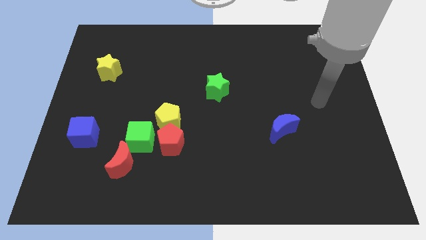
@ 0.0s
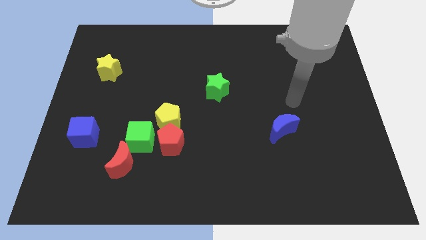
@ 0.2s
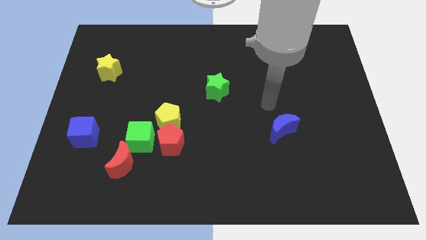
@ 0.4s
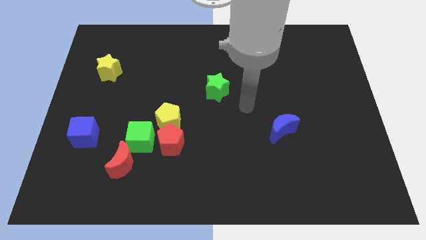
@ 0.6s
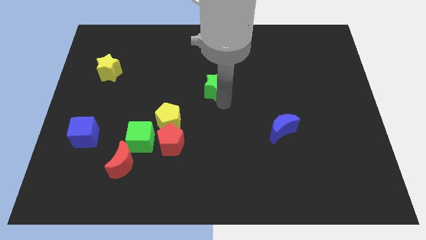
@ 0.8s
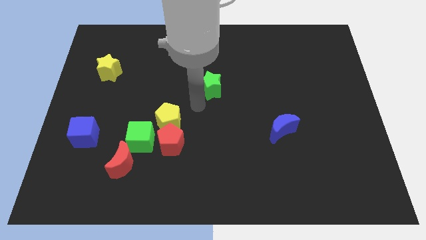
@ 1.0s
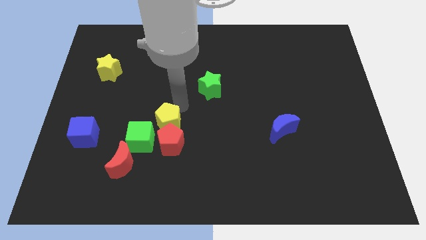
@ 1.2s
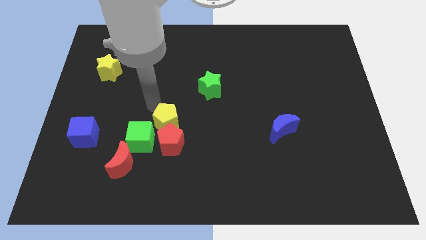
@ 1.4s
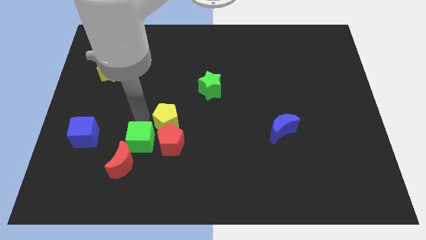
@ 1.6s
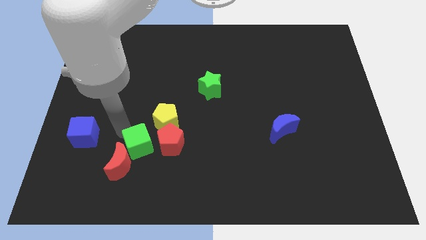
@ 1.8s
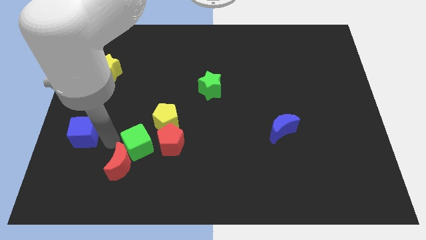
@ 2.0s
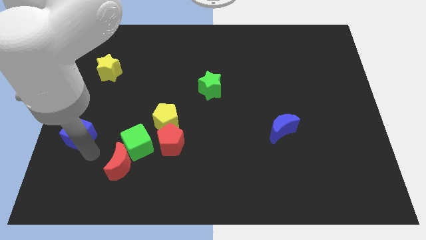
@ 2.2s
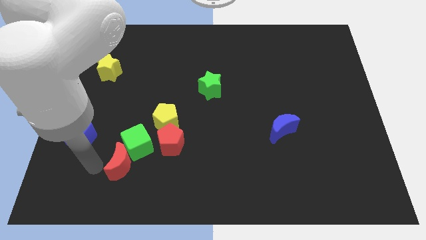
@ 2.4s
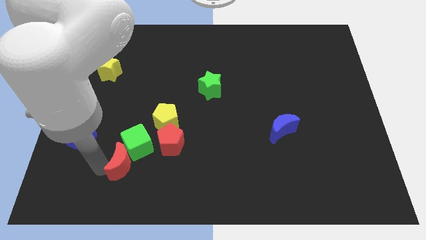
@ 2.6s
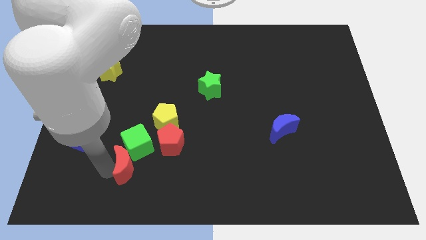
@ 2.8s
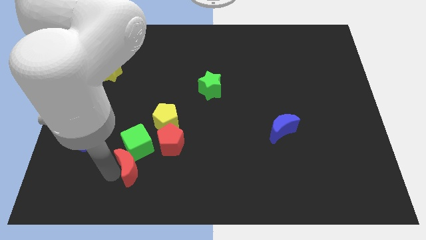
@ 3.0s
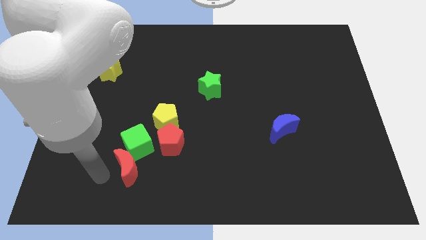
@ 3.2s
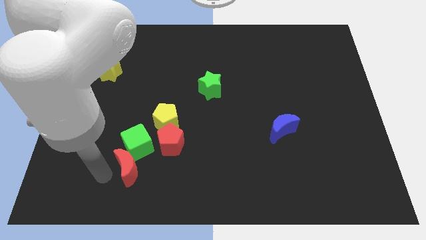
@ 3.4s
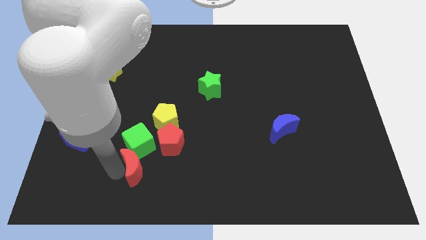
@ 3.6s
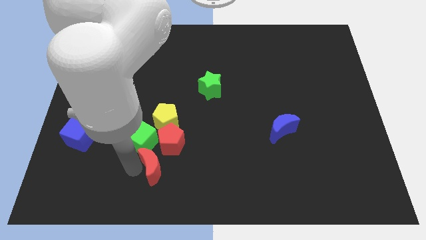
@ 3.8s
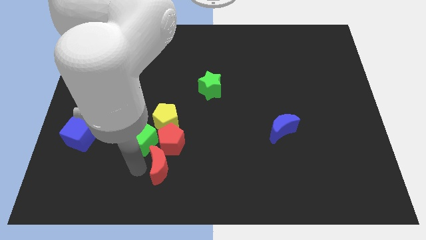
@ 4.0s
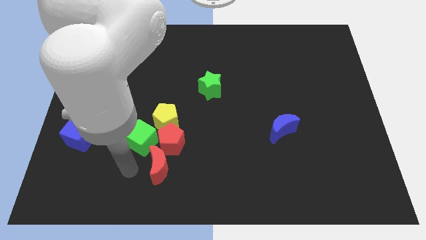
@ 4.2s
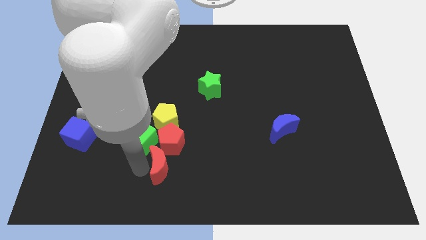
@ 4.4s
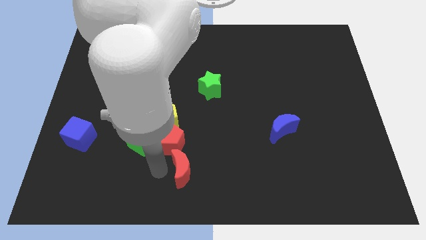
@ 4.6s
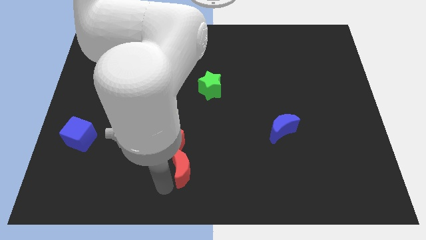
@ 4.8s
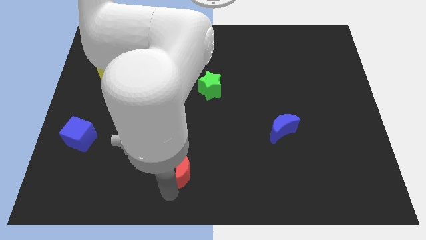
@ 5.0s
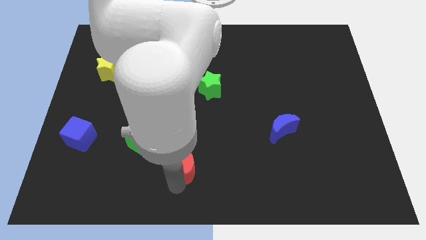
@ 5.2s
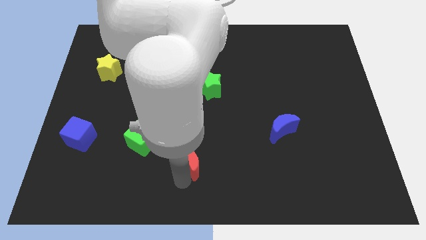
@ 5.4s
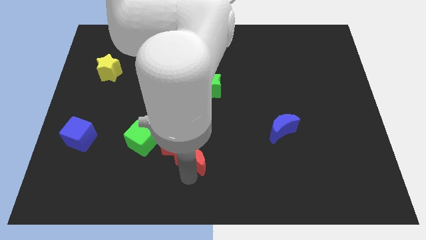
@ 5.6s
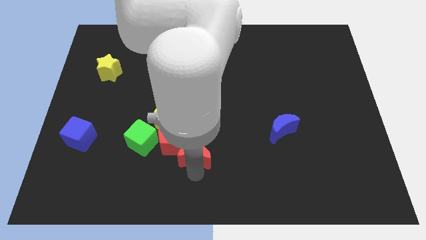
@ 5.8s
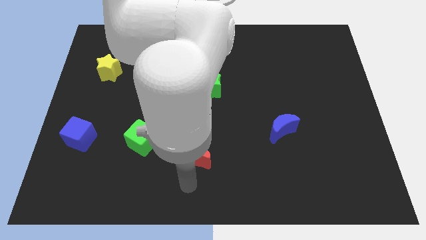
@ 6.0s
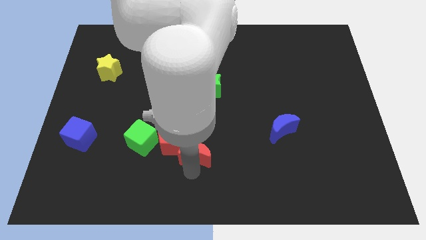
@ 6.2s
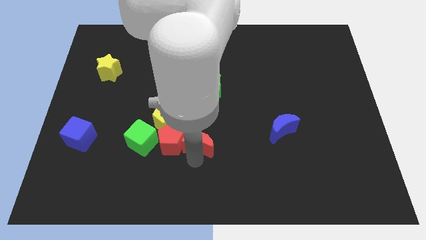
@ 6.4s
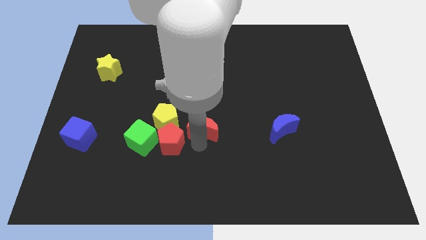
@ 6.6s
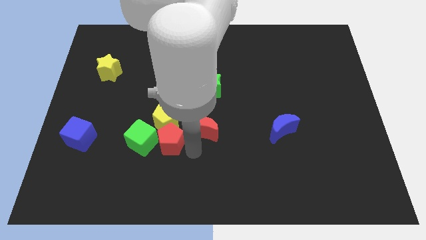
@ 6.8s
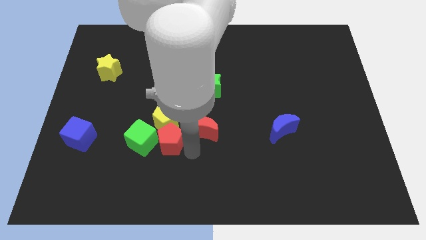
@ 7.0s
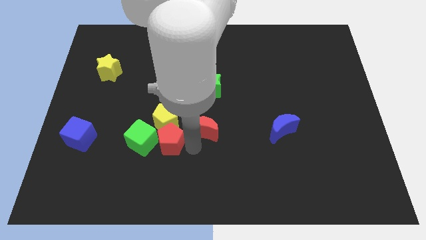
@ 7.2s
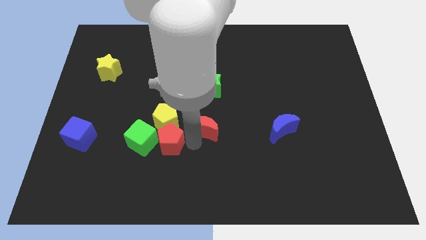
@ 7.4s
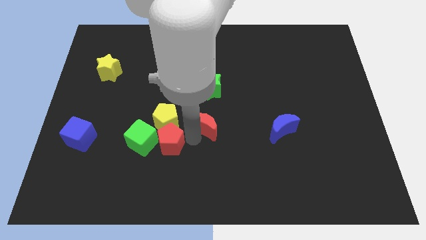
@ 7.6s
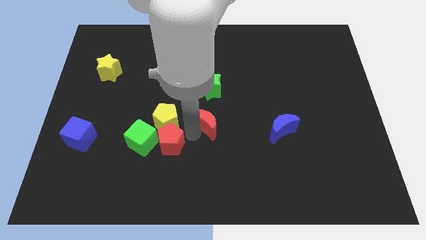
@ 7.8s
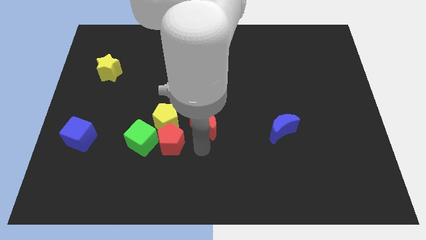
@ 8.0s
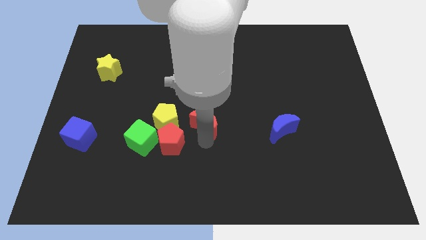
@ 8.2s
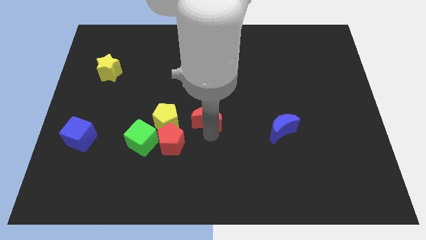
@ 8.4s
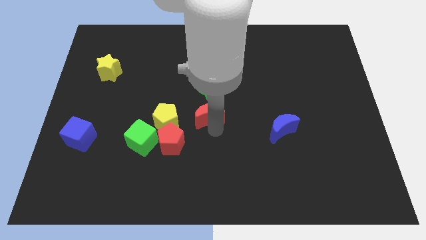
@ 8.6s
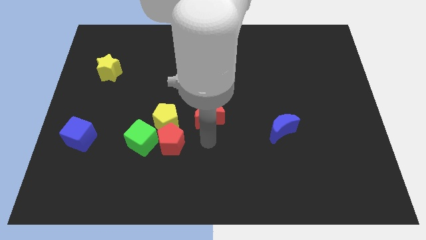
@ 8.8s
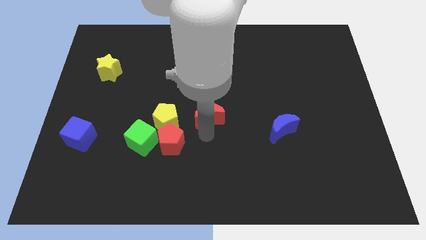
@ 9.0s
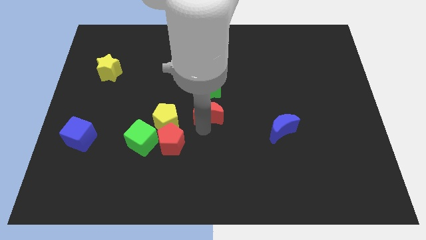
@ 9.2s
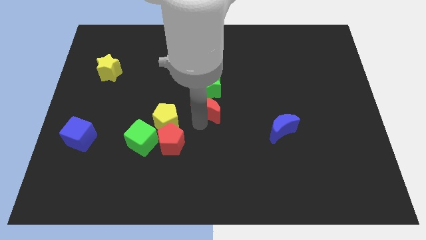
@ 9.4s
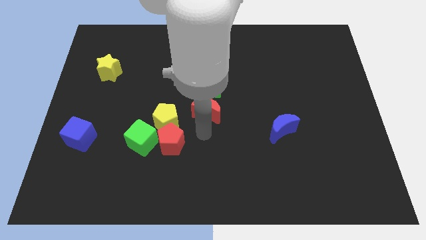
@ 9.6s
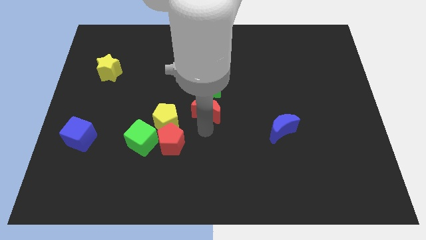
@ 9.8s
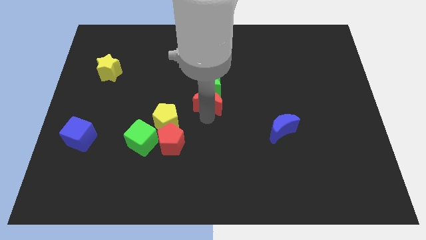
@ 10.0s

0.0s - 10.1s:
move the red moon towards the green star

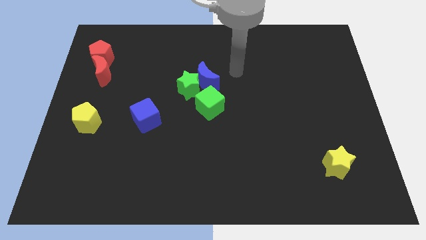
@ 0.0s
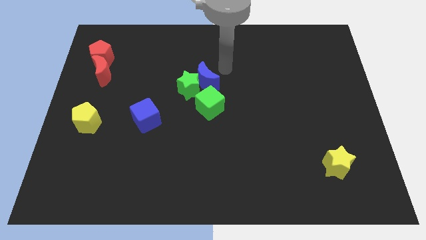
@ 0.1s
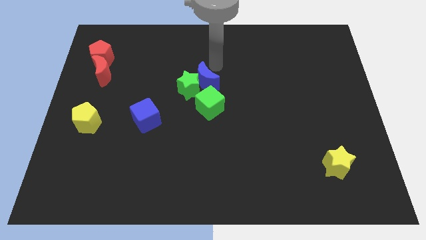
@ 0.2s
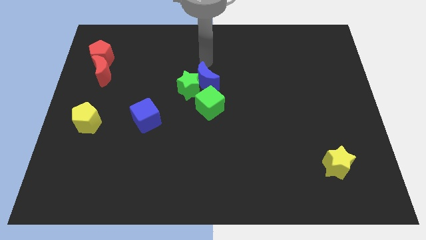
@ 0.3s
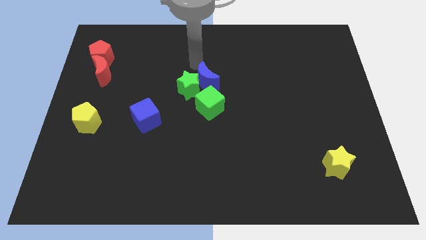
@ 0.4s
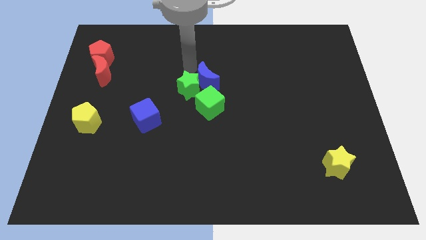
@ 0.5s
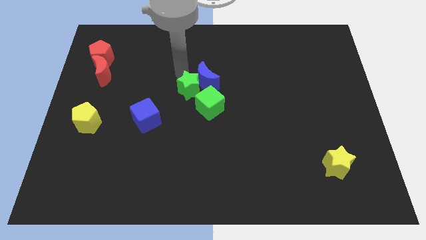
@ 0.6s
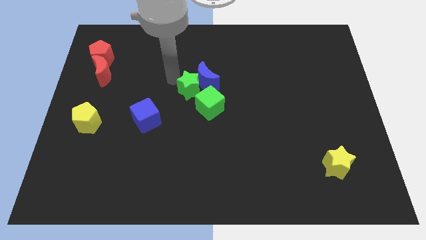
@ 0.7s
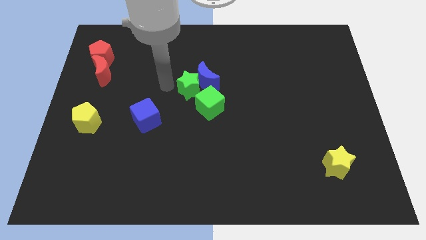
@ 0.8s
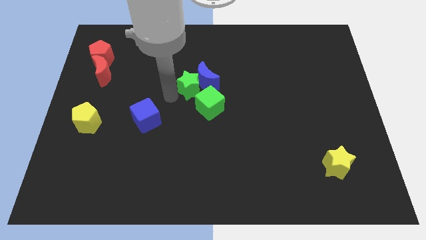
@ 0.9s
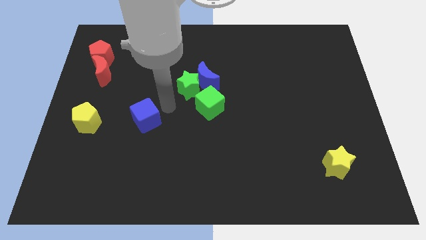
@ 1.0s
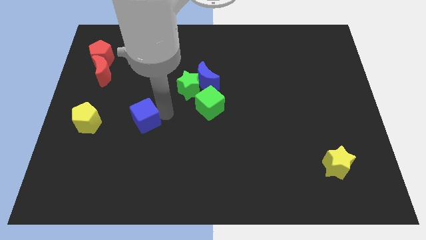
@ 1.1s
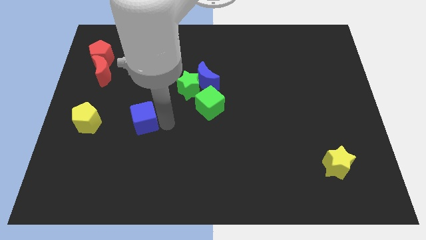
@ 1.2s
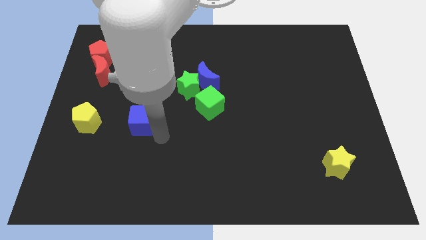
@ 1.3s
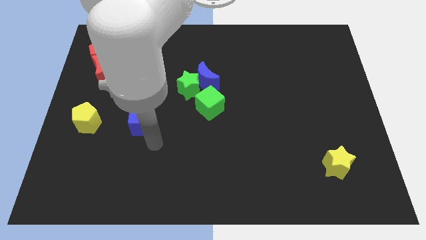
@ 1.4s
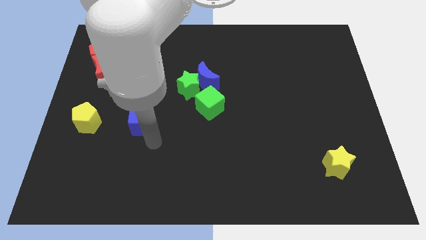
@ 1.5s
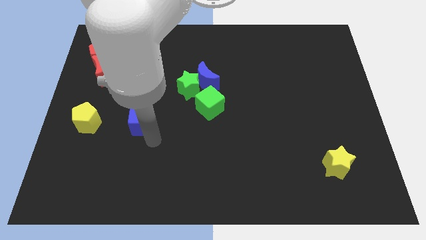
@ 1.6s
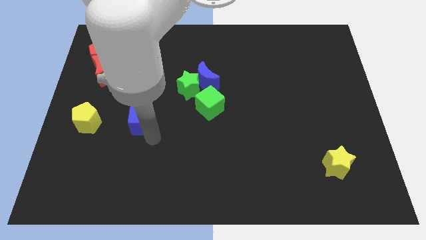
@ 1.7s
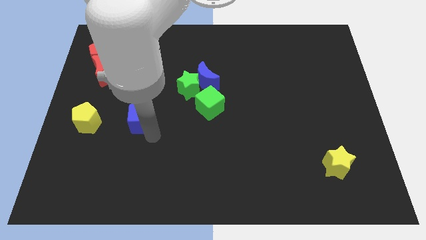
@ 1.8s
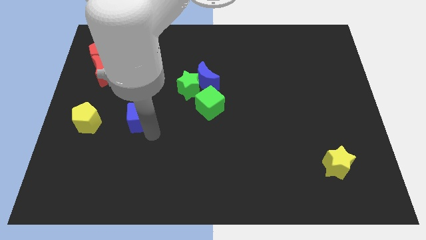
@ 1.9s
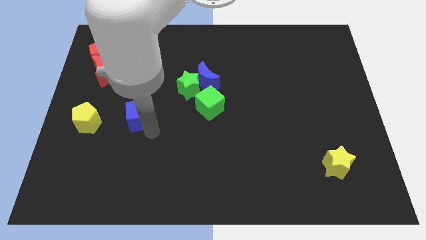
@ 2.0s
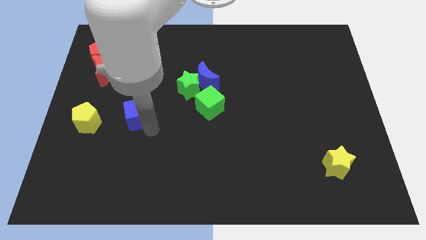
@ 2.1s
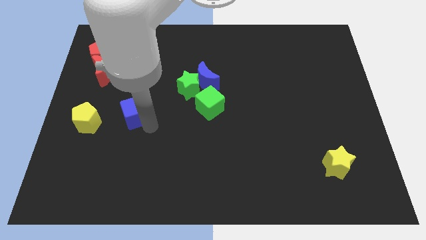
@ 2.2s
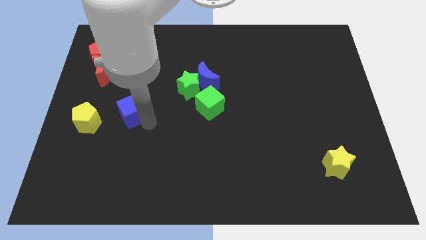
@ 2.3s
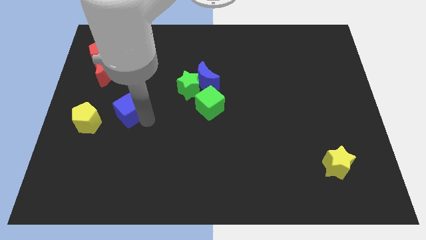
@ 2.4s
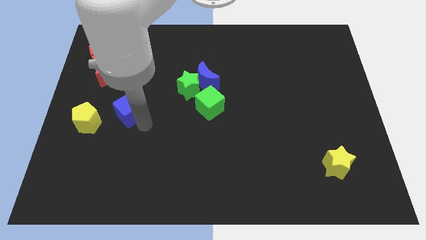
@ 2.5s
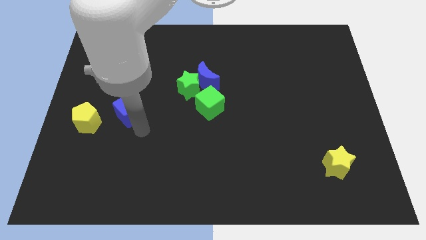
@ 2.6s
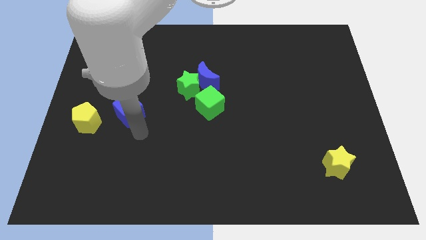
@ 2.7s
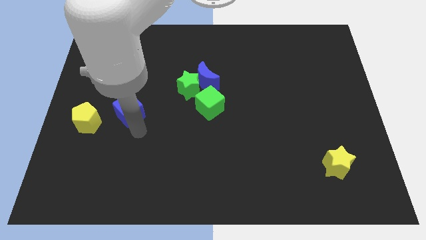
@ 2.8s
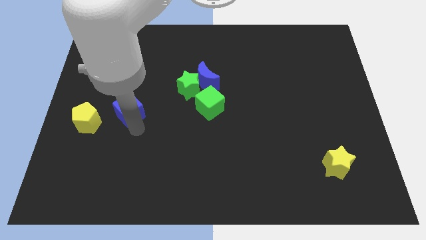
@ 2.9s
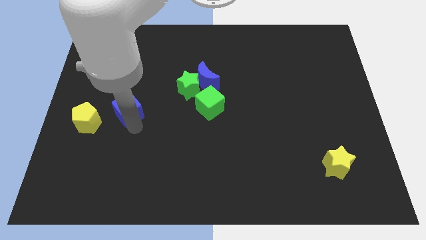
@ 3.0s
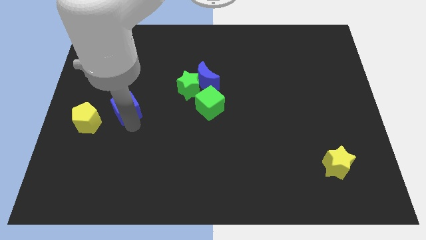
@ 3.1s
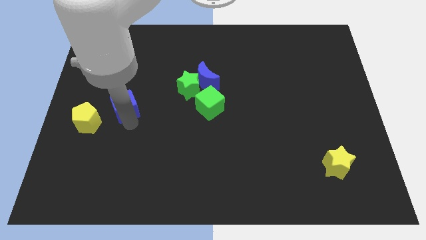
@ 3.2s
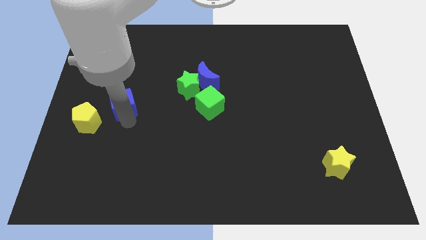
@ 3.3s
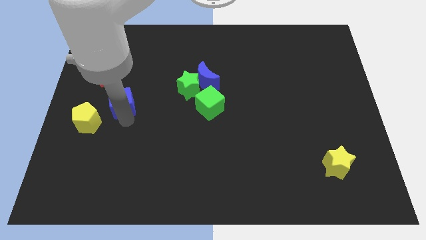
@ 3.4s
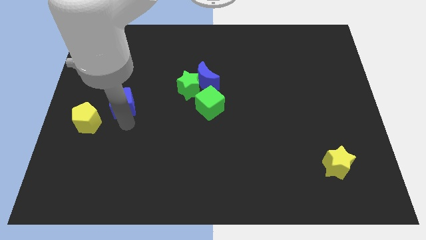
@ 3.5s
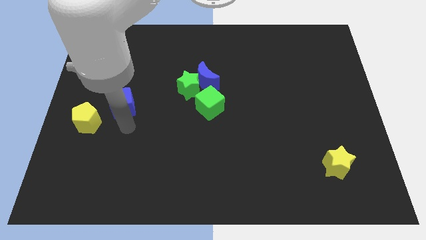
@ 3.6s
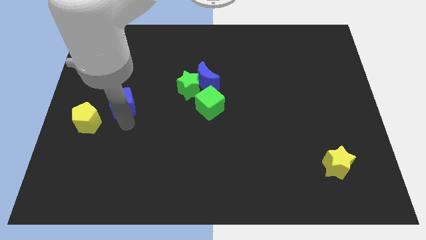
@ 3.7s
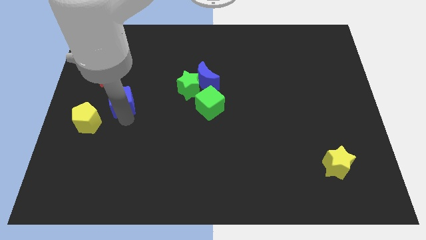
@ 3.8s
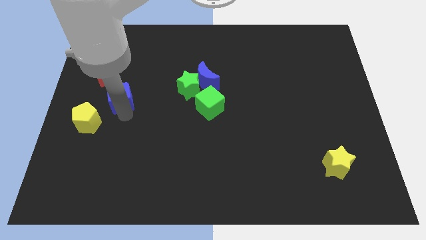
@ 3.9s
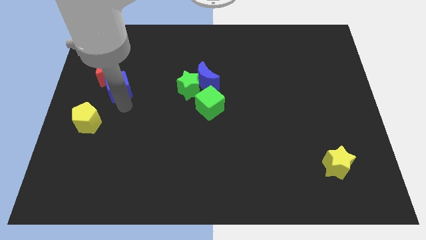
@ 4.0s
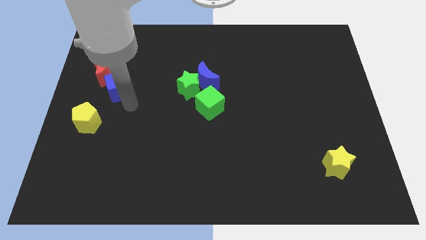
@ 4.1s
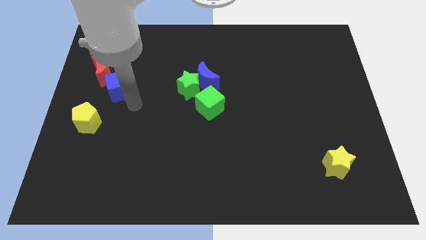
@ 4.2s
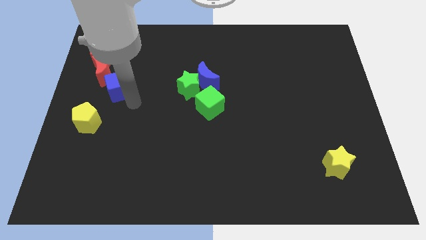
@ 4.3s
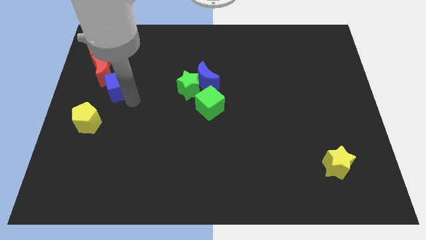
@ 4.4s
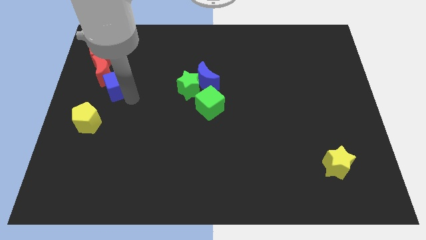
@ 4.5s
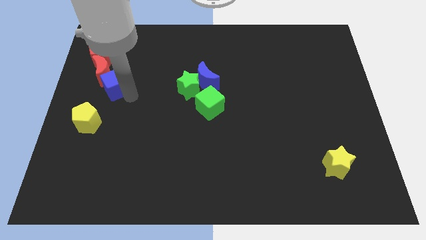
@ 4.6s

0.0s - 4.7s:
move the blue cube to the red moon
